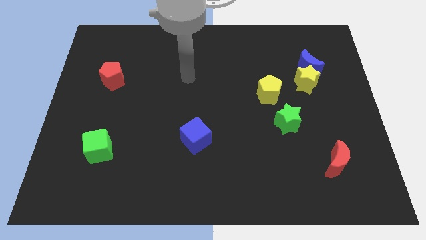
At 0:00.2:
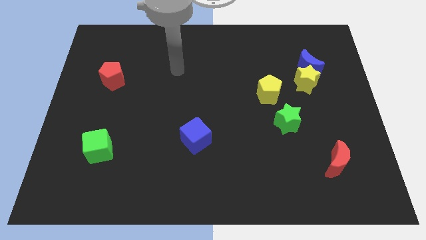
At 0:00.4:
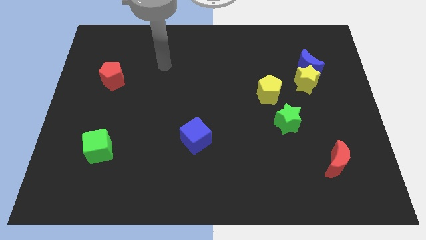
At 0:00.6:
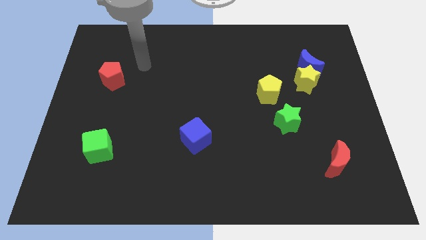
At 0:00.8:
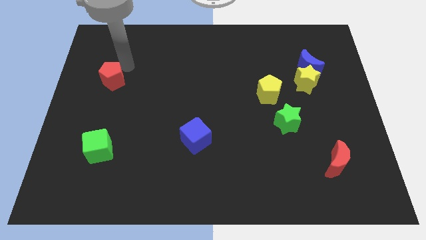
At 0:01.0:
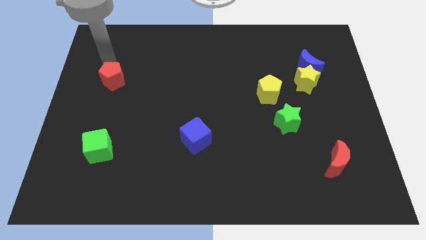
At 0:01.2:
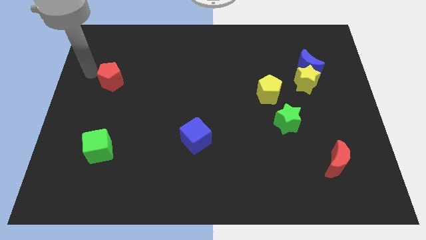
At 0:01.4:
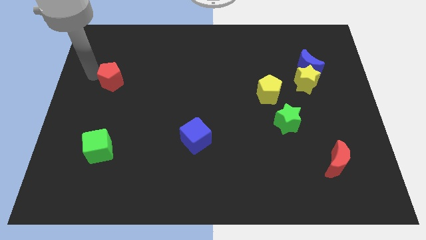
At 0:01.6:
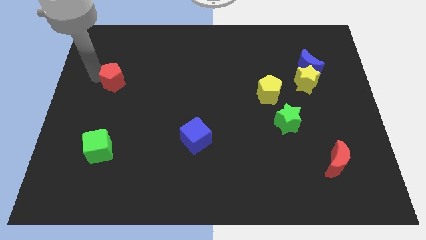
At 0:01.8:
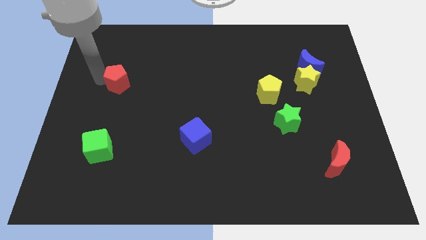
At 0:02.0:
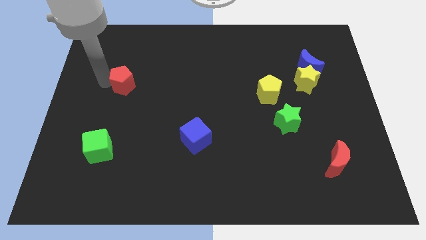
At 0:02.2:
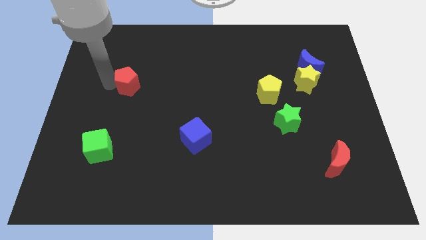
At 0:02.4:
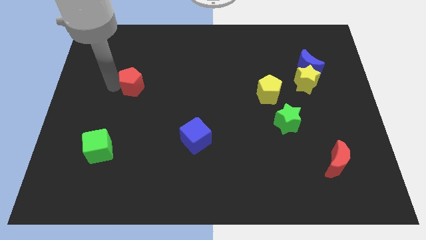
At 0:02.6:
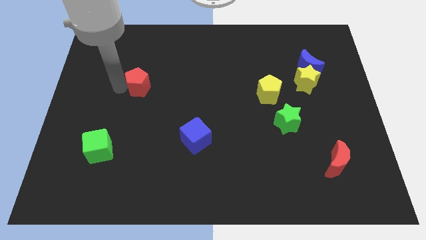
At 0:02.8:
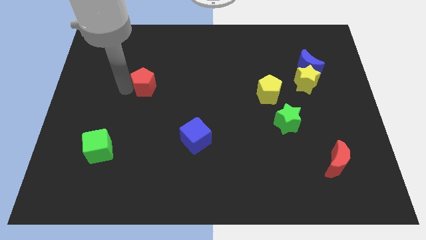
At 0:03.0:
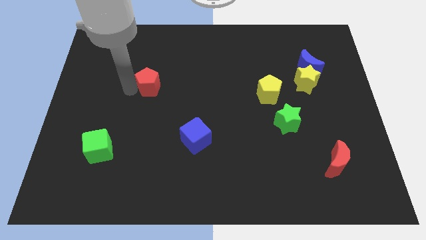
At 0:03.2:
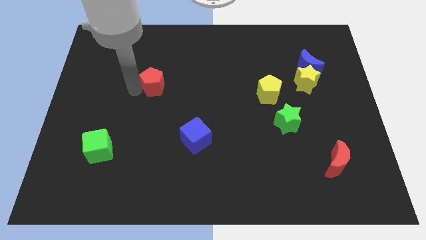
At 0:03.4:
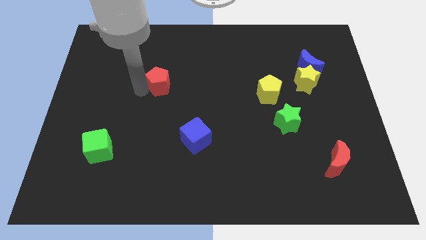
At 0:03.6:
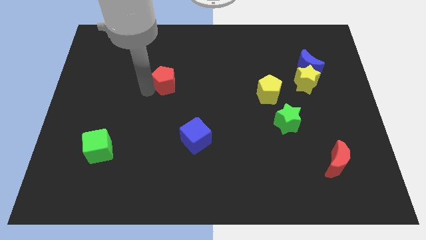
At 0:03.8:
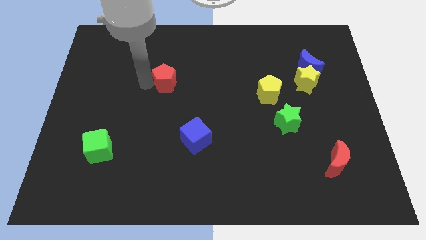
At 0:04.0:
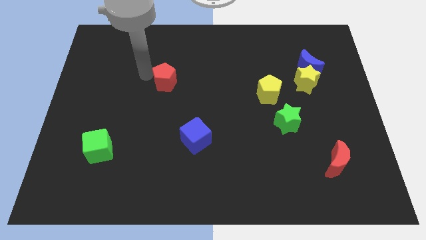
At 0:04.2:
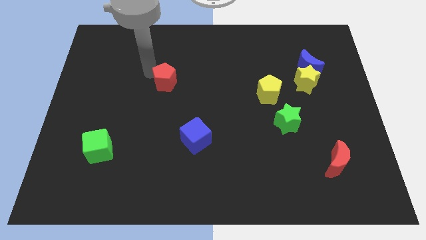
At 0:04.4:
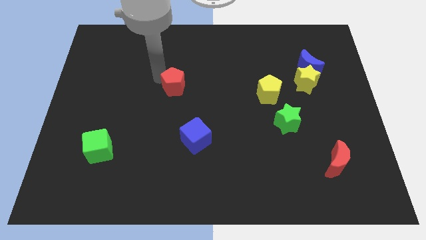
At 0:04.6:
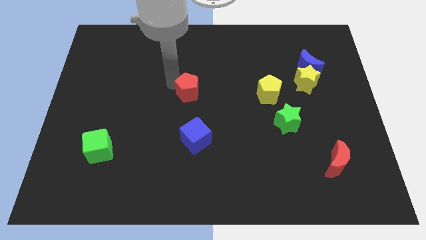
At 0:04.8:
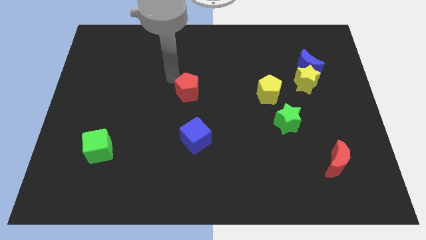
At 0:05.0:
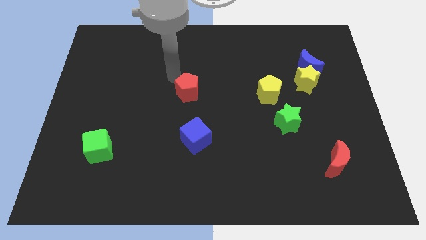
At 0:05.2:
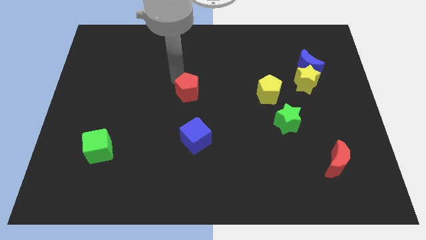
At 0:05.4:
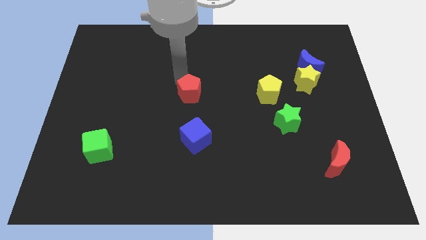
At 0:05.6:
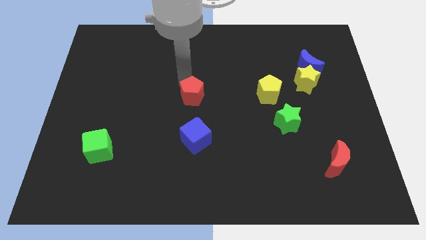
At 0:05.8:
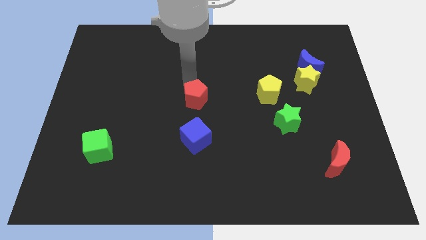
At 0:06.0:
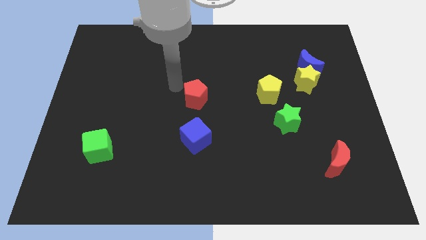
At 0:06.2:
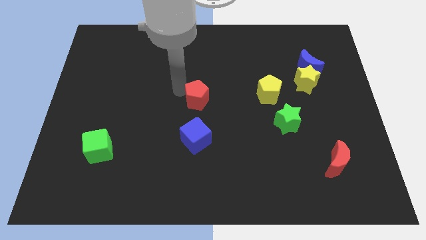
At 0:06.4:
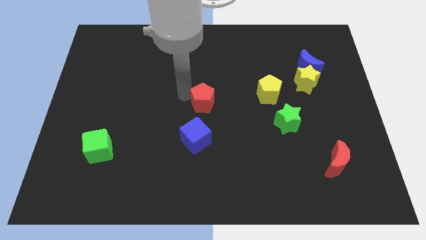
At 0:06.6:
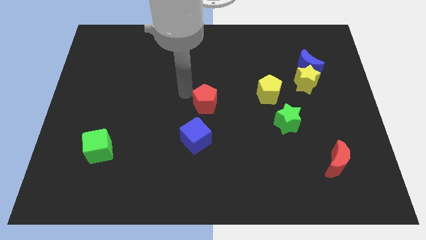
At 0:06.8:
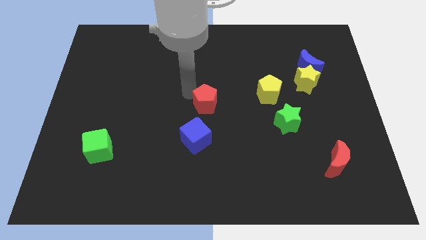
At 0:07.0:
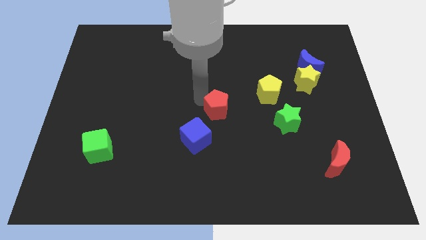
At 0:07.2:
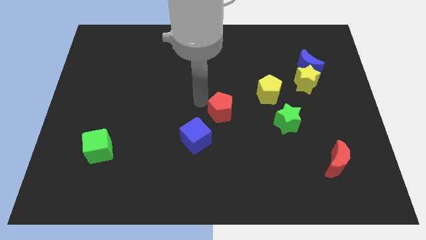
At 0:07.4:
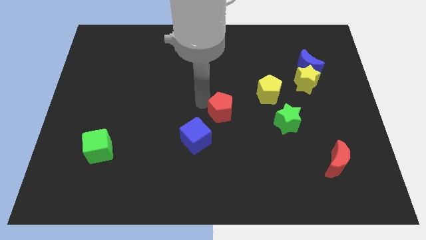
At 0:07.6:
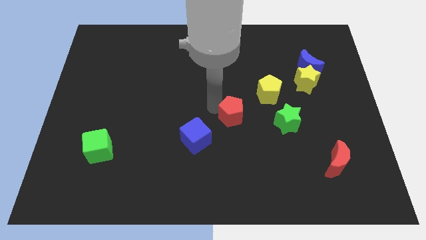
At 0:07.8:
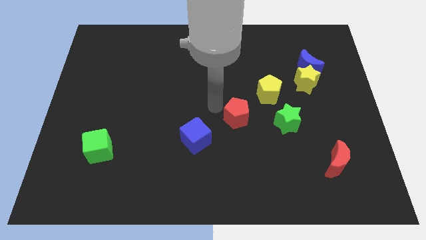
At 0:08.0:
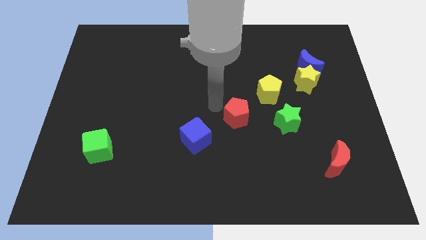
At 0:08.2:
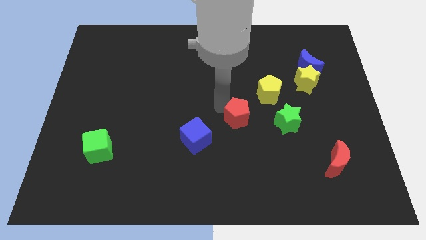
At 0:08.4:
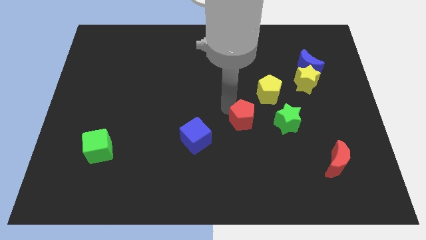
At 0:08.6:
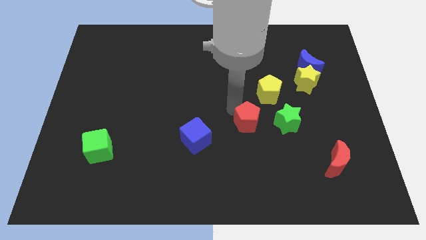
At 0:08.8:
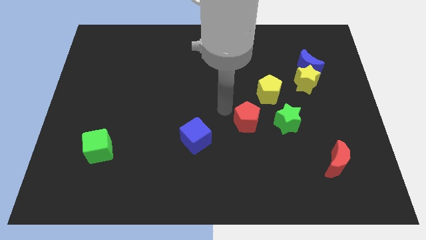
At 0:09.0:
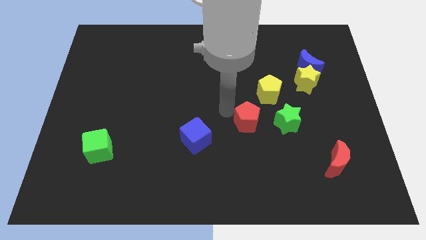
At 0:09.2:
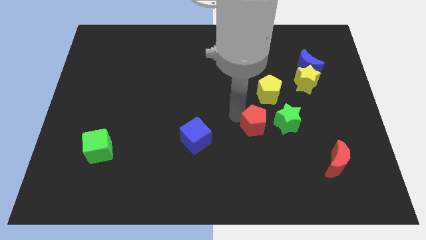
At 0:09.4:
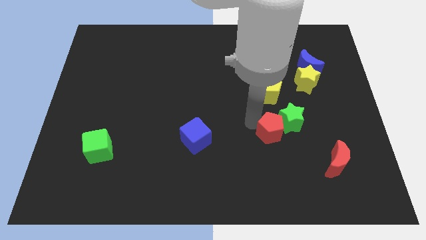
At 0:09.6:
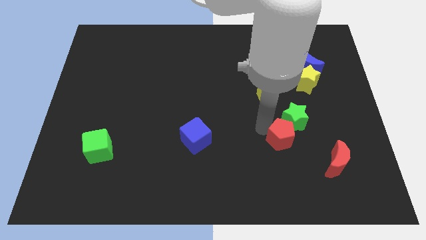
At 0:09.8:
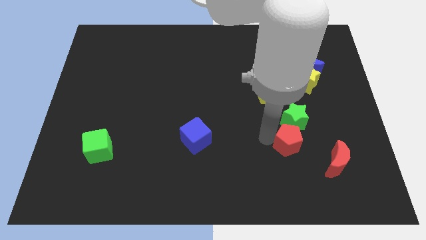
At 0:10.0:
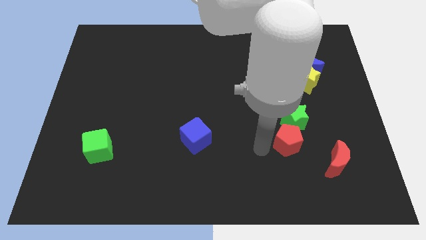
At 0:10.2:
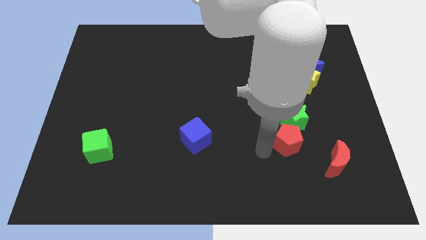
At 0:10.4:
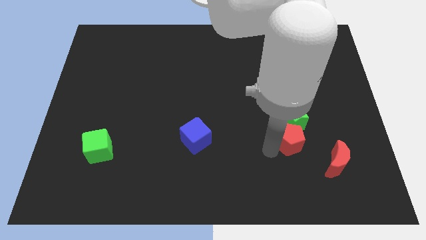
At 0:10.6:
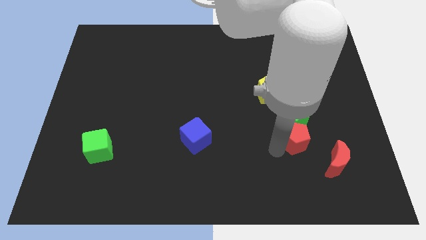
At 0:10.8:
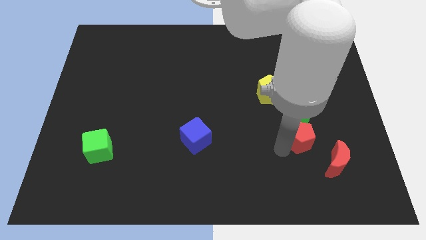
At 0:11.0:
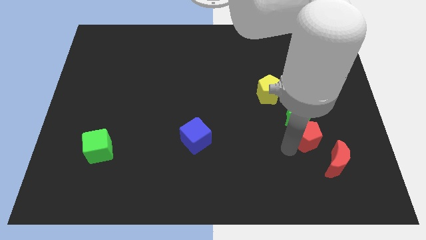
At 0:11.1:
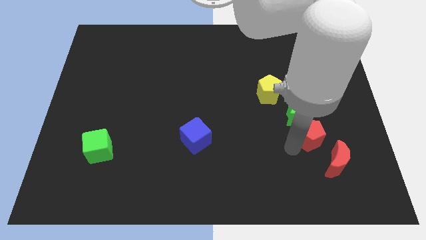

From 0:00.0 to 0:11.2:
move the red pentagon above the red moon

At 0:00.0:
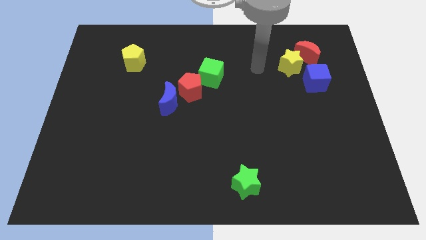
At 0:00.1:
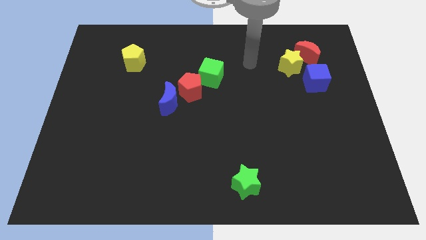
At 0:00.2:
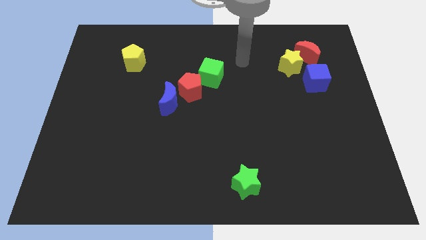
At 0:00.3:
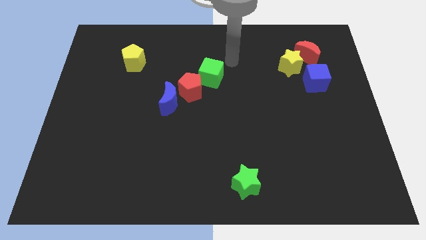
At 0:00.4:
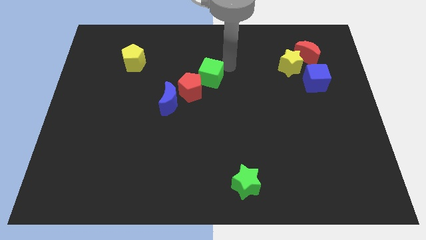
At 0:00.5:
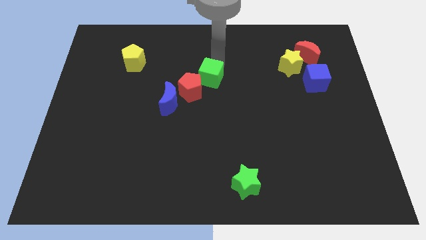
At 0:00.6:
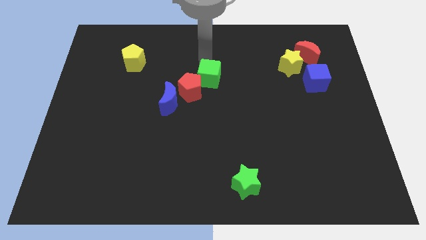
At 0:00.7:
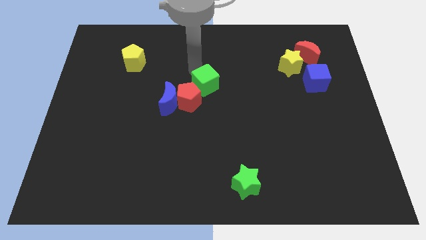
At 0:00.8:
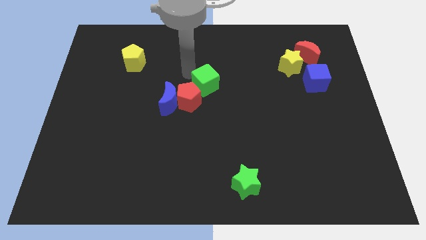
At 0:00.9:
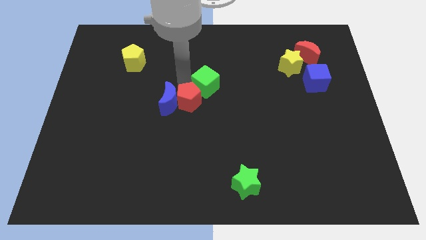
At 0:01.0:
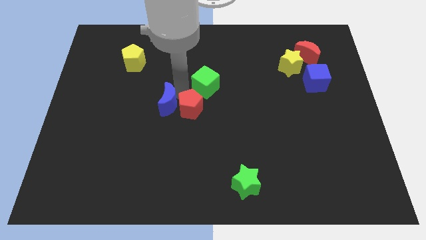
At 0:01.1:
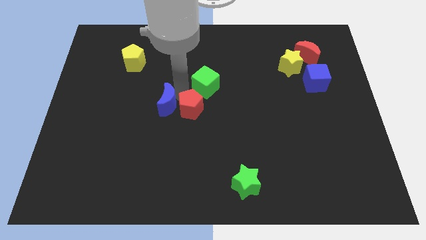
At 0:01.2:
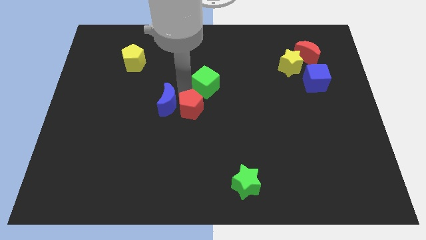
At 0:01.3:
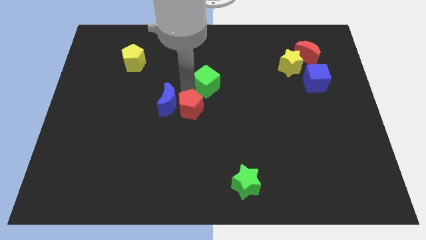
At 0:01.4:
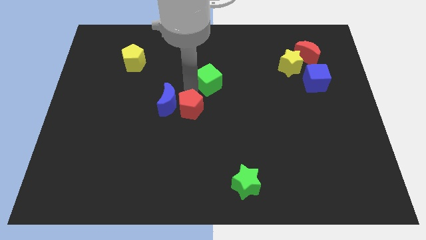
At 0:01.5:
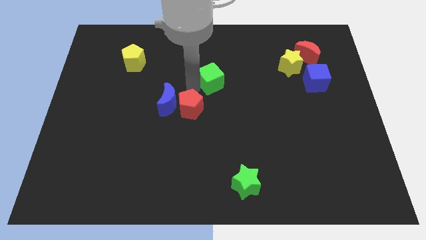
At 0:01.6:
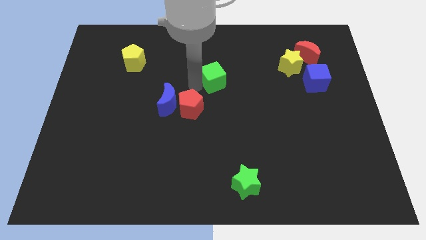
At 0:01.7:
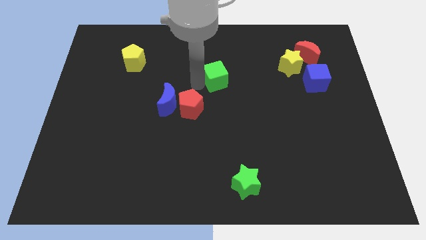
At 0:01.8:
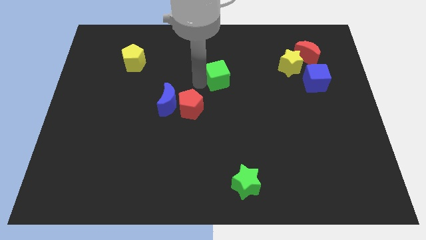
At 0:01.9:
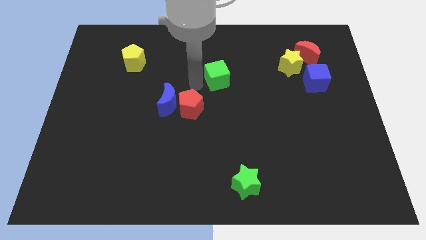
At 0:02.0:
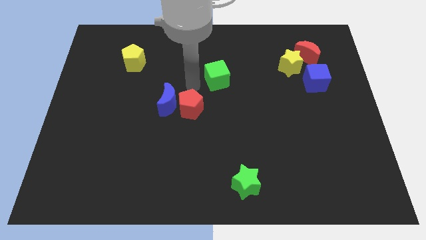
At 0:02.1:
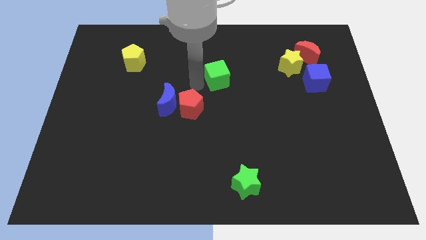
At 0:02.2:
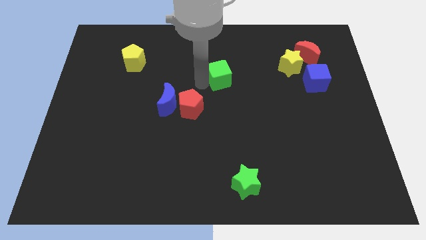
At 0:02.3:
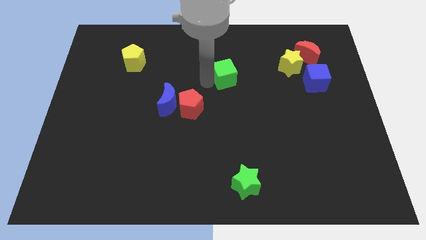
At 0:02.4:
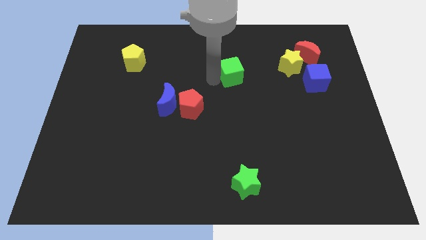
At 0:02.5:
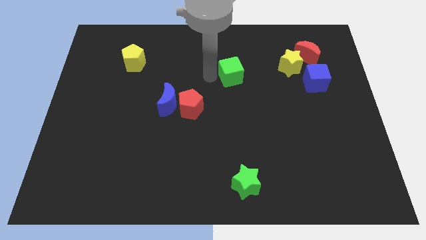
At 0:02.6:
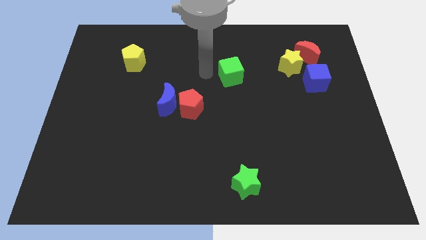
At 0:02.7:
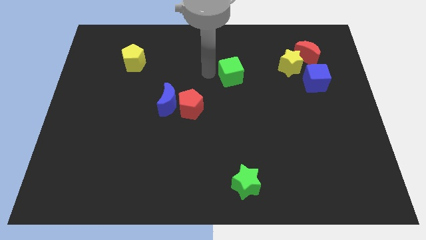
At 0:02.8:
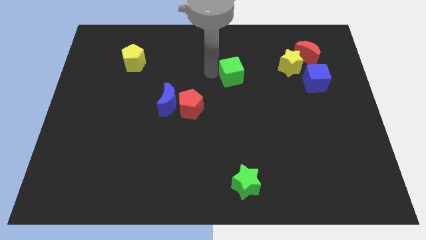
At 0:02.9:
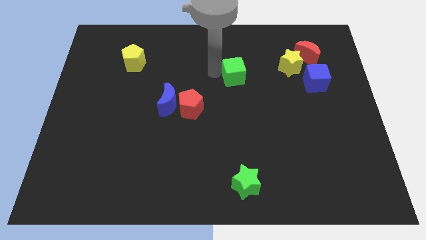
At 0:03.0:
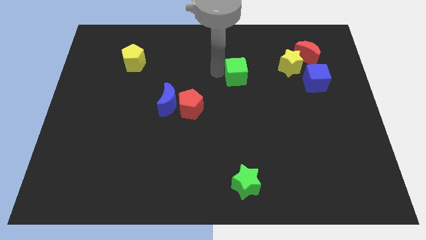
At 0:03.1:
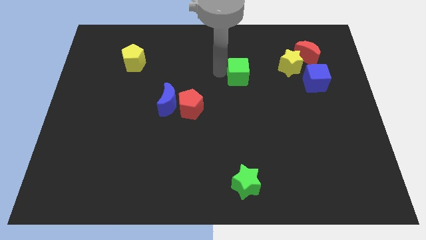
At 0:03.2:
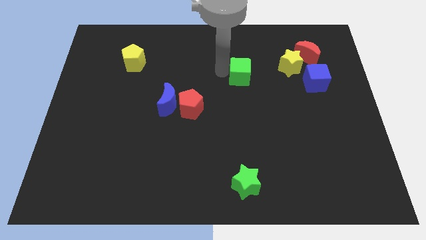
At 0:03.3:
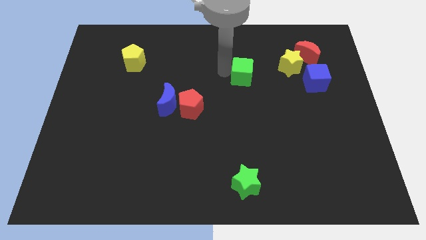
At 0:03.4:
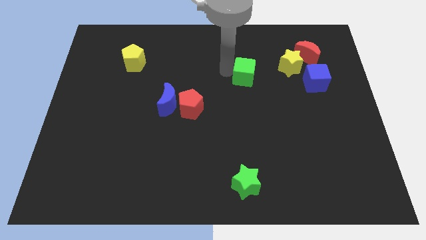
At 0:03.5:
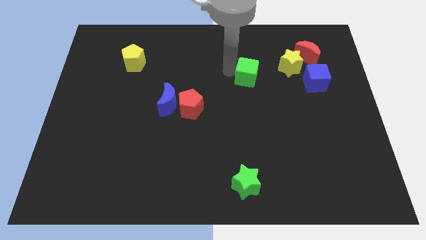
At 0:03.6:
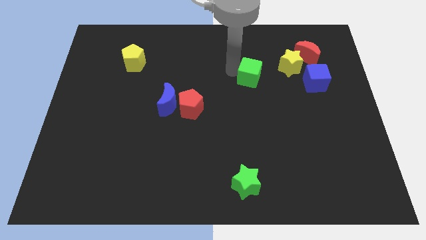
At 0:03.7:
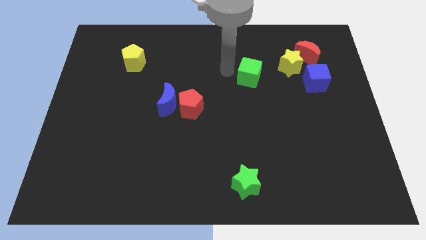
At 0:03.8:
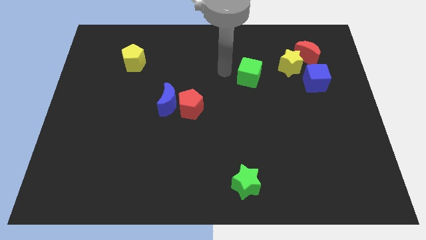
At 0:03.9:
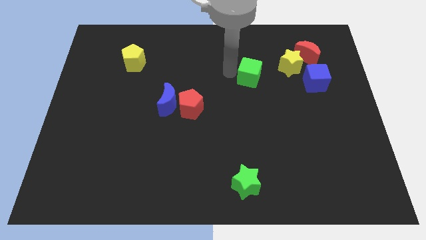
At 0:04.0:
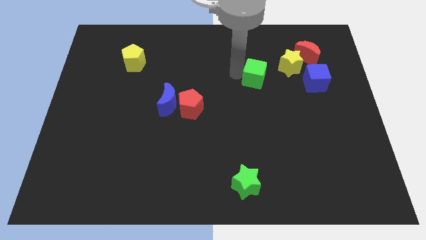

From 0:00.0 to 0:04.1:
put the green cube diagonally down and to the left of the yellow star
